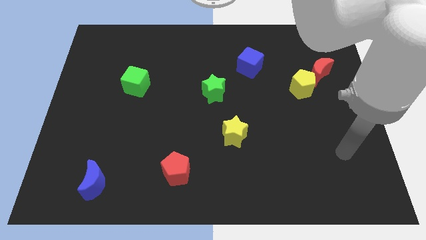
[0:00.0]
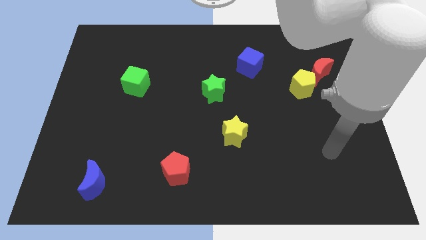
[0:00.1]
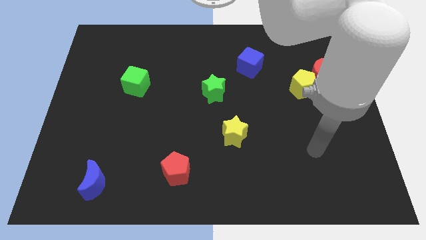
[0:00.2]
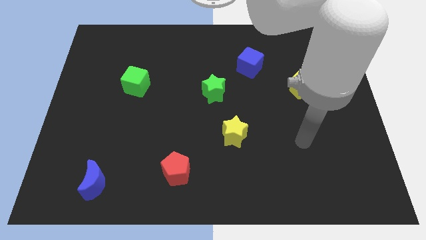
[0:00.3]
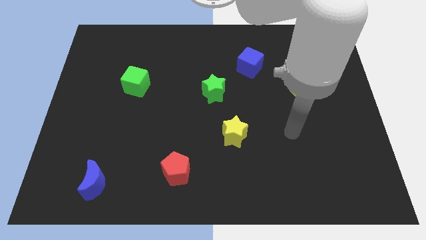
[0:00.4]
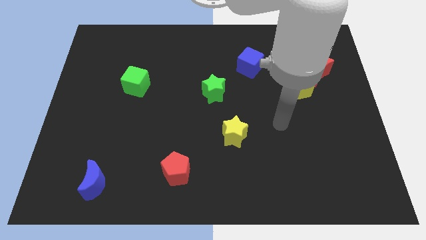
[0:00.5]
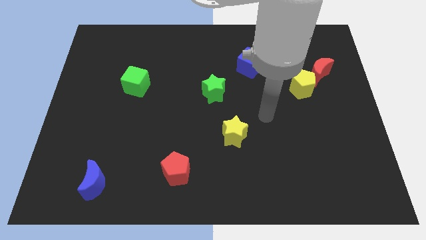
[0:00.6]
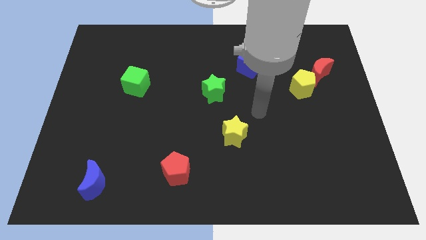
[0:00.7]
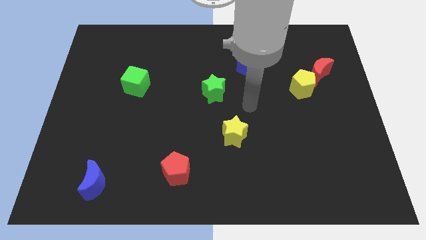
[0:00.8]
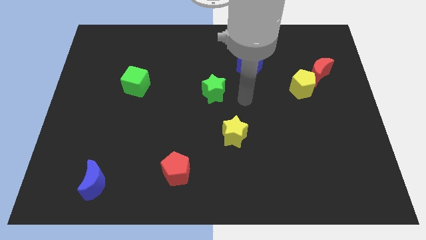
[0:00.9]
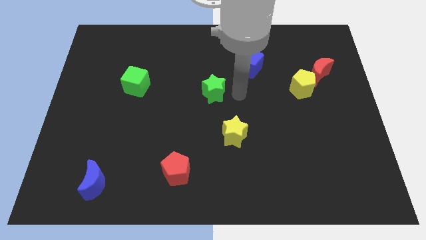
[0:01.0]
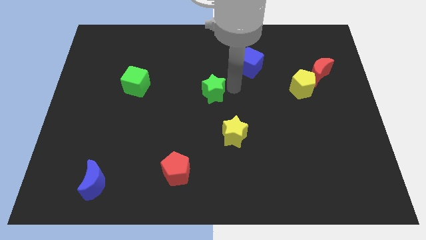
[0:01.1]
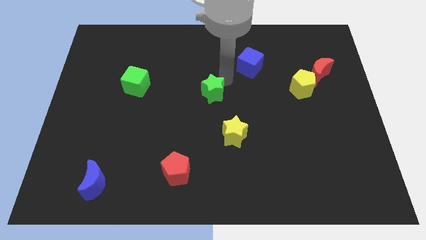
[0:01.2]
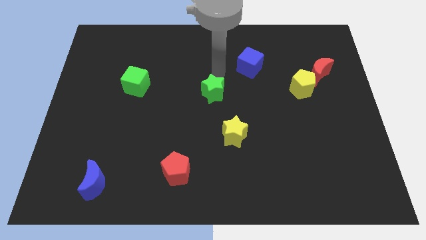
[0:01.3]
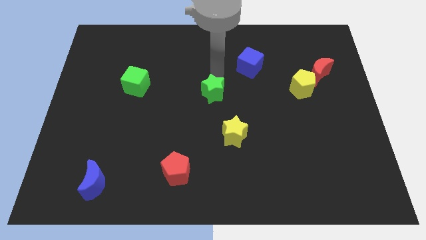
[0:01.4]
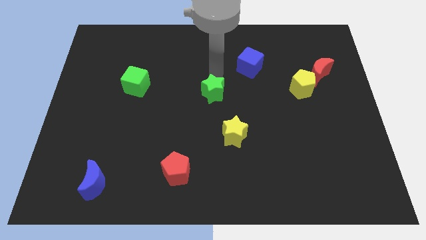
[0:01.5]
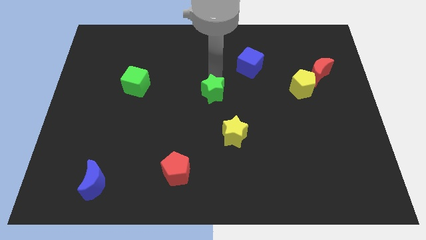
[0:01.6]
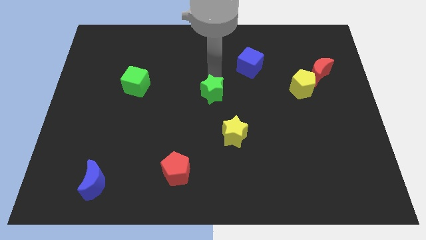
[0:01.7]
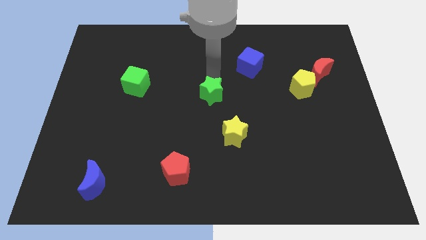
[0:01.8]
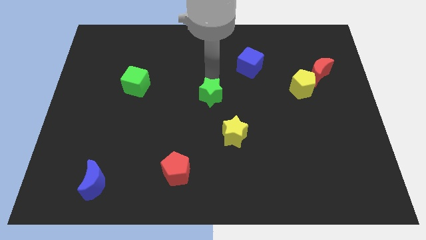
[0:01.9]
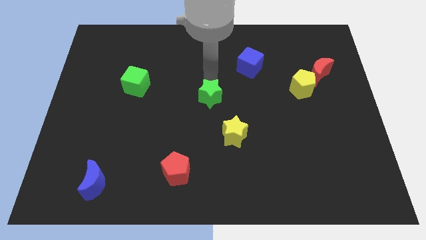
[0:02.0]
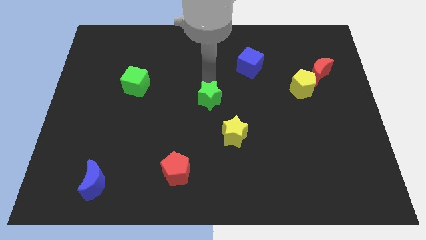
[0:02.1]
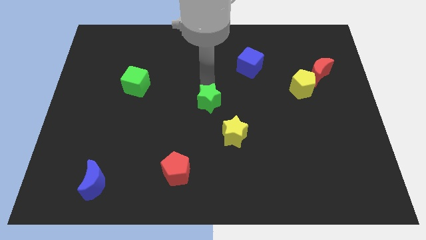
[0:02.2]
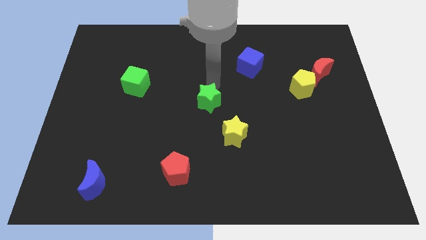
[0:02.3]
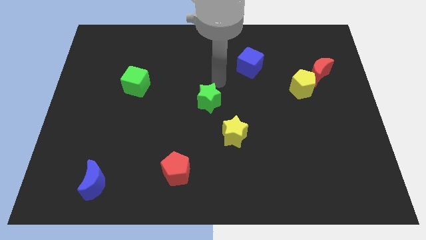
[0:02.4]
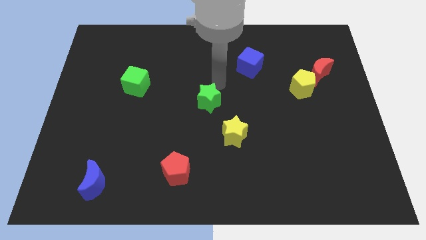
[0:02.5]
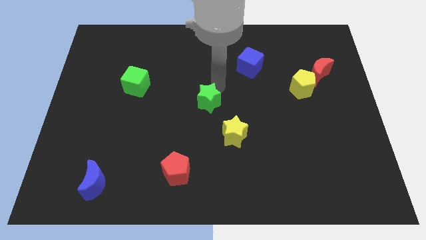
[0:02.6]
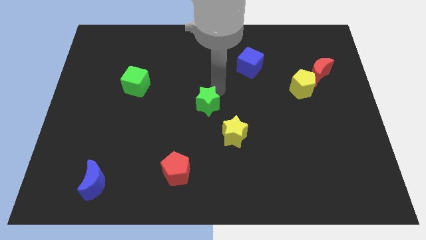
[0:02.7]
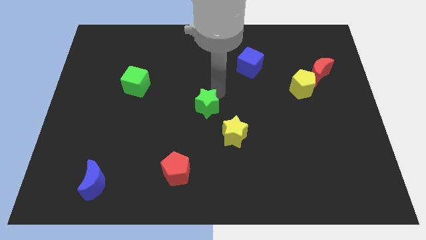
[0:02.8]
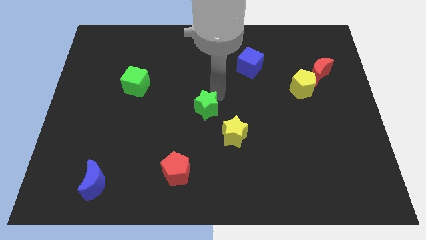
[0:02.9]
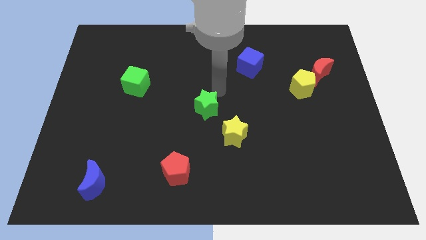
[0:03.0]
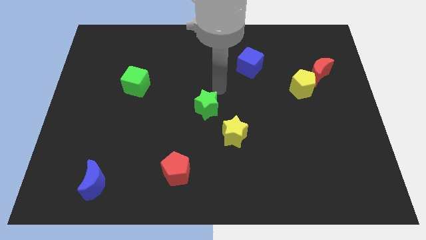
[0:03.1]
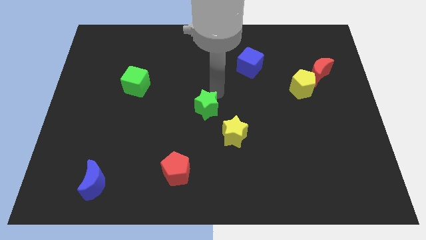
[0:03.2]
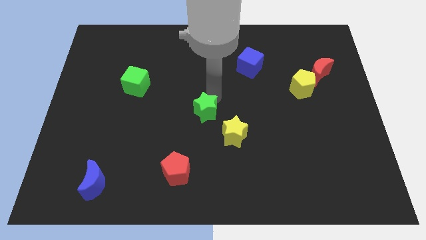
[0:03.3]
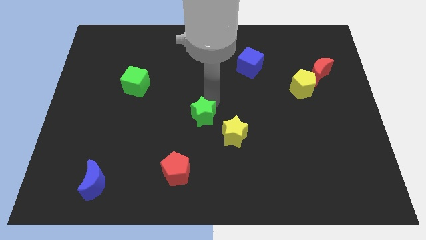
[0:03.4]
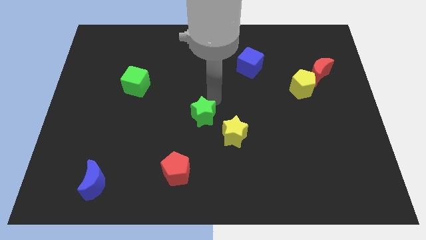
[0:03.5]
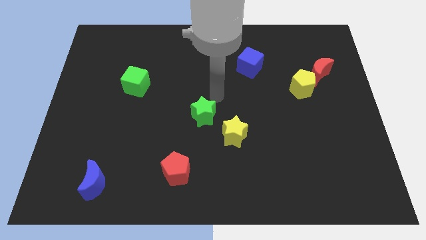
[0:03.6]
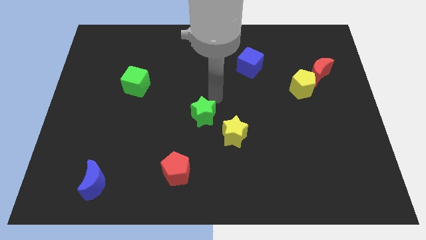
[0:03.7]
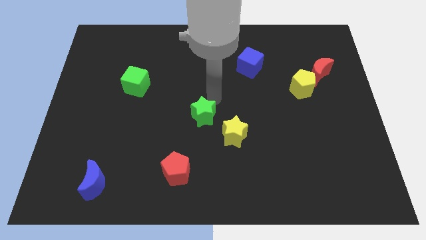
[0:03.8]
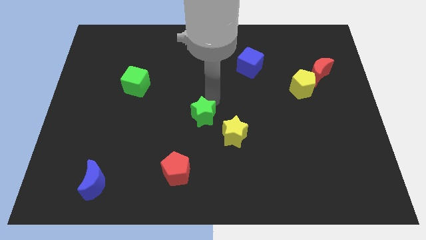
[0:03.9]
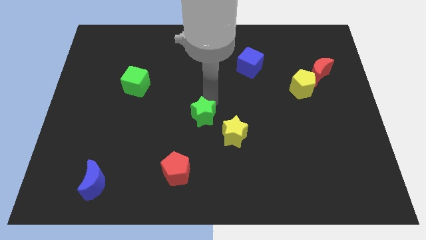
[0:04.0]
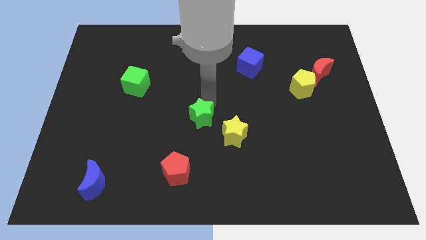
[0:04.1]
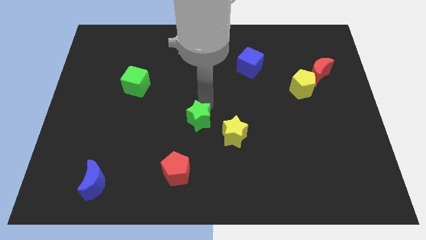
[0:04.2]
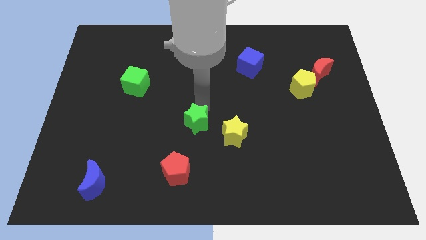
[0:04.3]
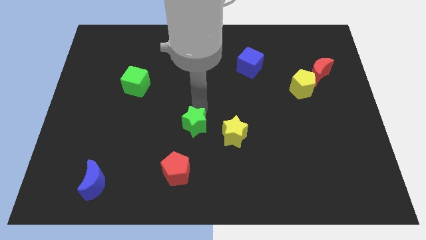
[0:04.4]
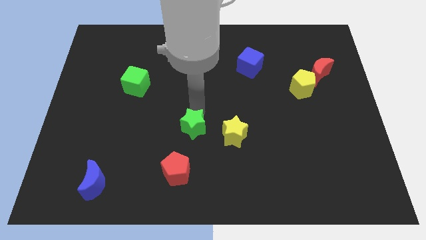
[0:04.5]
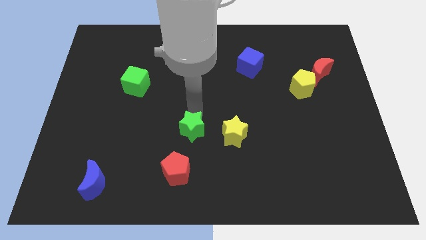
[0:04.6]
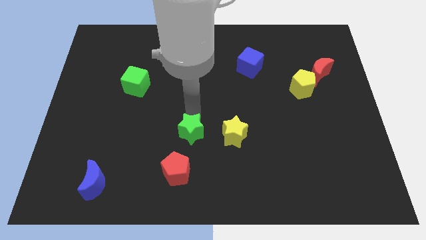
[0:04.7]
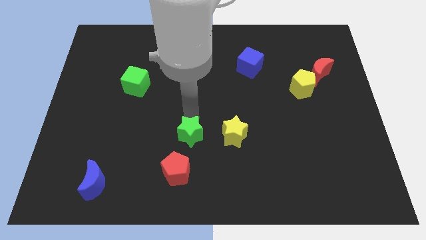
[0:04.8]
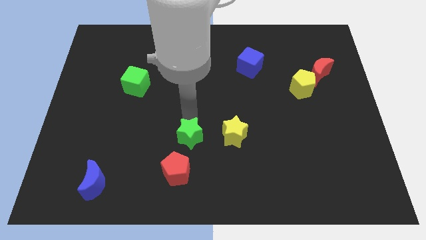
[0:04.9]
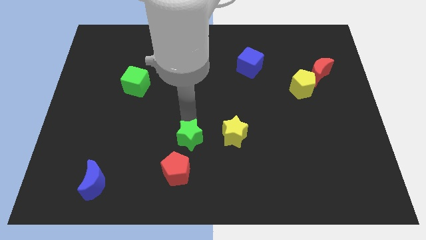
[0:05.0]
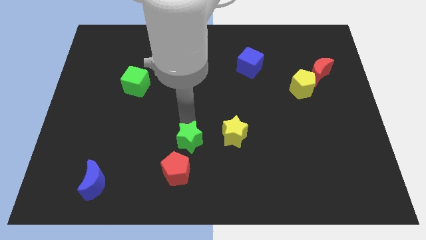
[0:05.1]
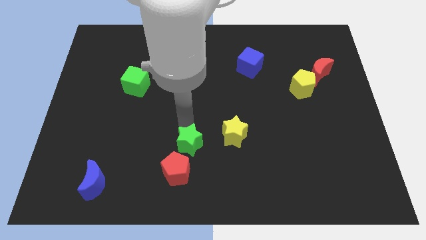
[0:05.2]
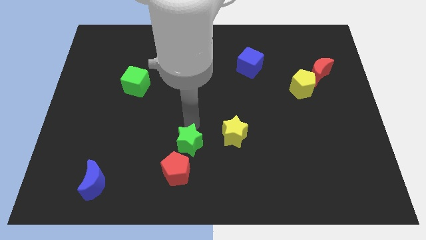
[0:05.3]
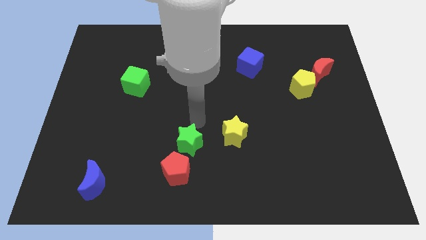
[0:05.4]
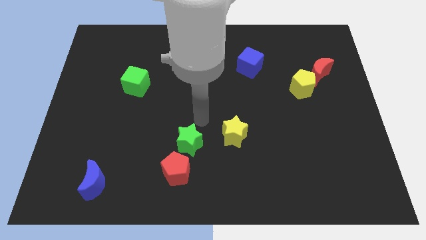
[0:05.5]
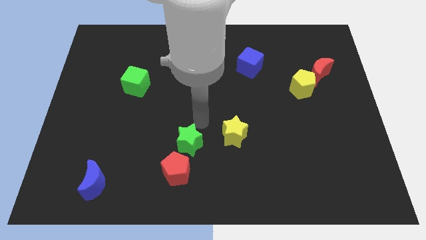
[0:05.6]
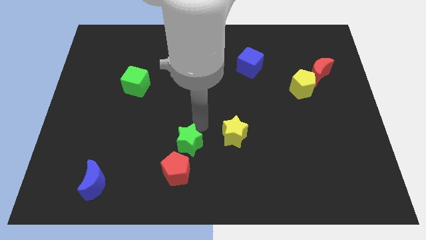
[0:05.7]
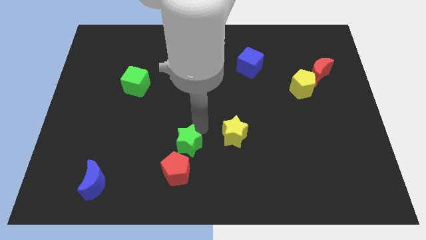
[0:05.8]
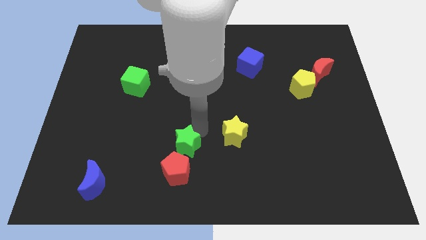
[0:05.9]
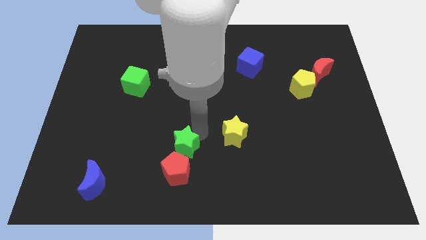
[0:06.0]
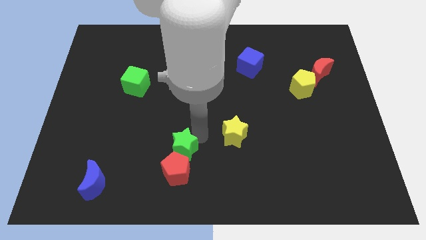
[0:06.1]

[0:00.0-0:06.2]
move the green star towards the red pentagon

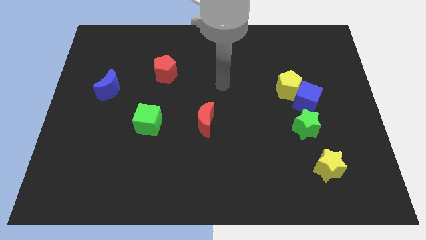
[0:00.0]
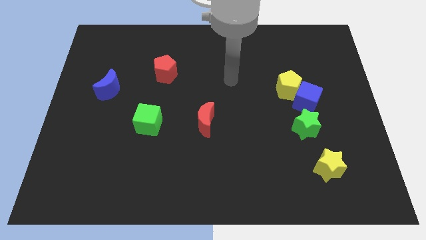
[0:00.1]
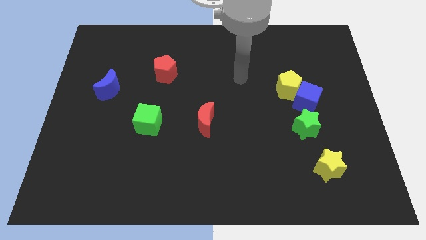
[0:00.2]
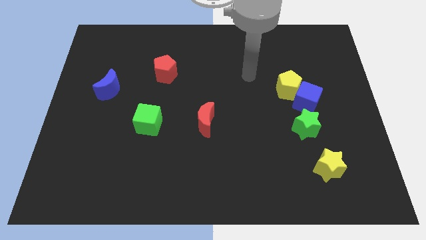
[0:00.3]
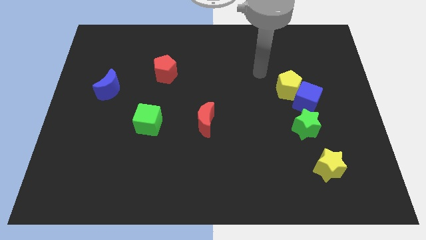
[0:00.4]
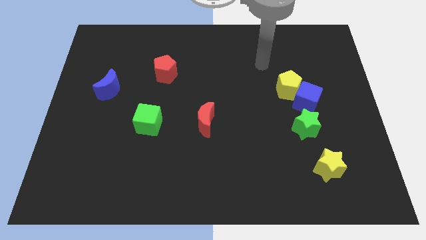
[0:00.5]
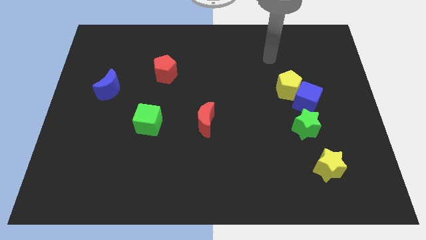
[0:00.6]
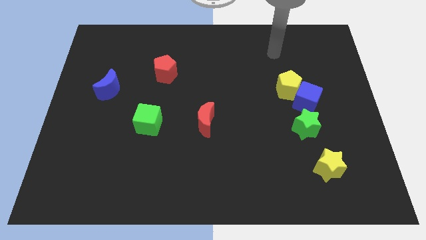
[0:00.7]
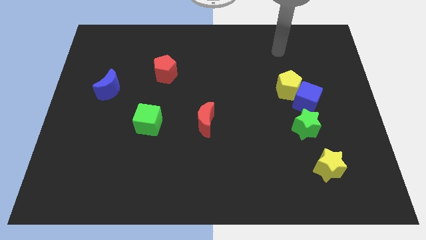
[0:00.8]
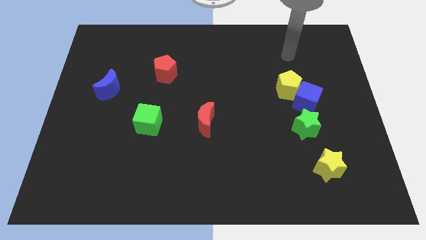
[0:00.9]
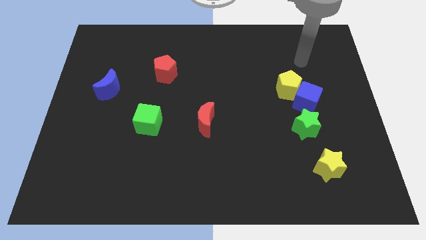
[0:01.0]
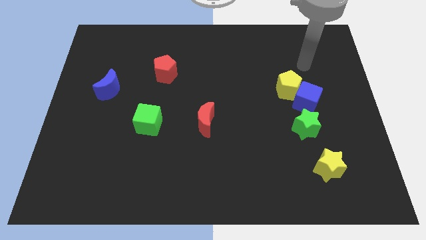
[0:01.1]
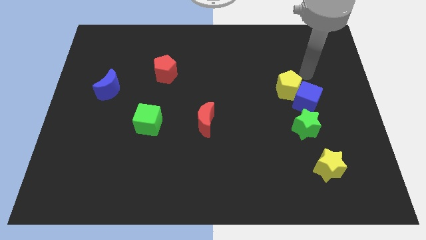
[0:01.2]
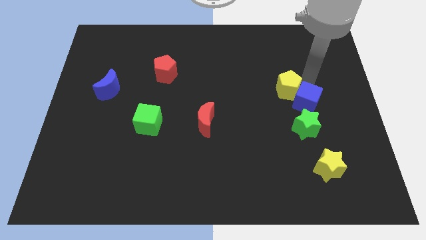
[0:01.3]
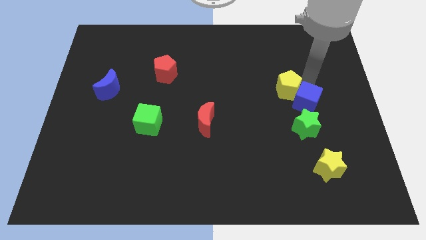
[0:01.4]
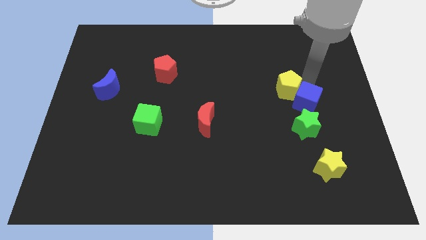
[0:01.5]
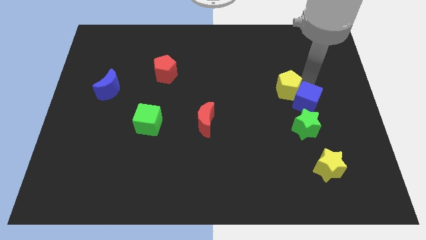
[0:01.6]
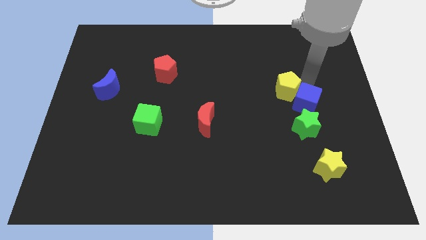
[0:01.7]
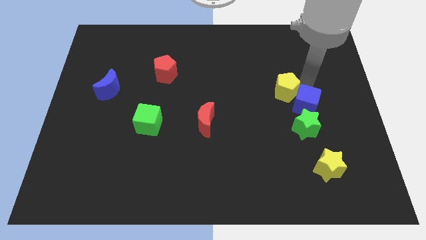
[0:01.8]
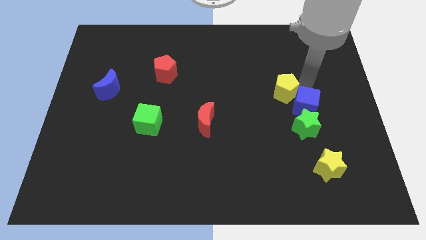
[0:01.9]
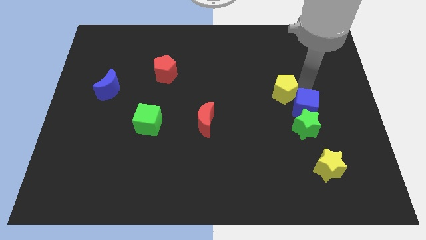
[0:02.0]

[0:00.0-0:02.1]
push the blue cube towards the green star

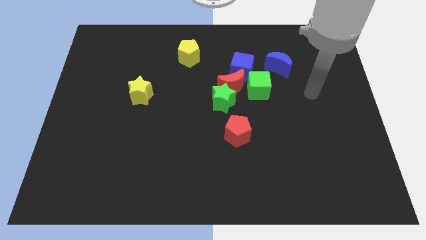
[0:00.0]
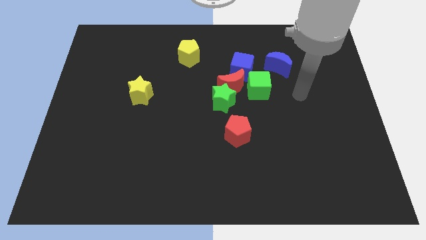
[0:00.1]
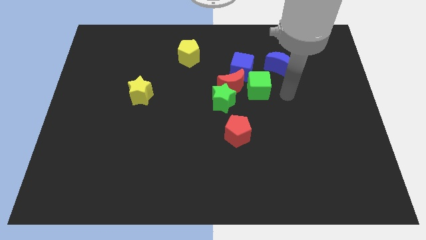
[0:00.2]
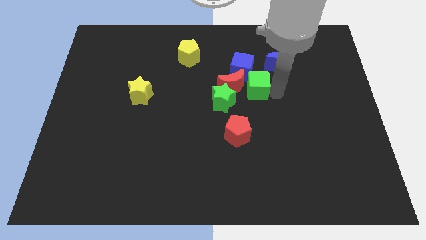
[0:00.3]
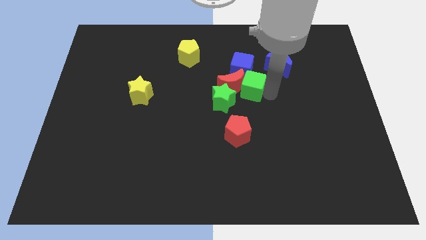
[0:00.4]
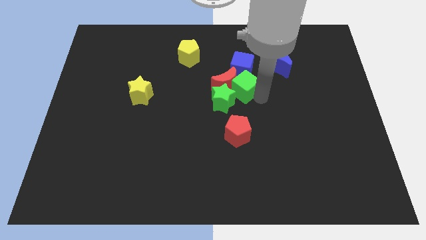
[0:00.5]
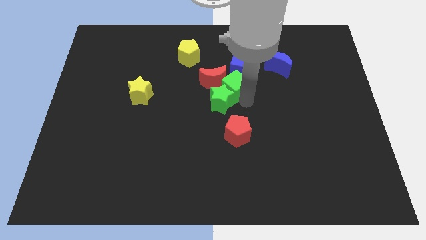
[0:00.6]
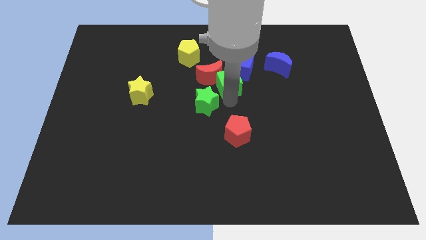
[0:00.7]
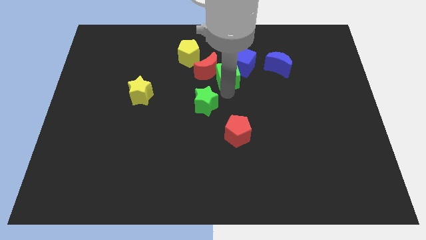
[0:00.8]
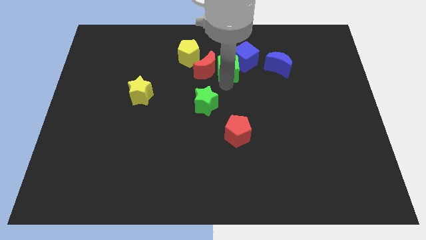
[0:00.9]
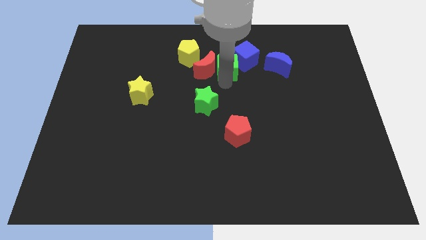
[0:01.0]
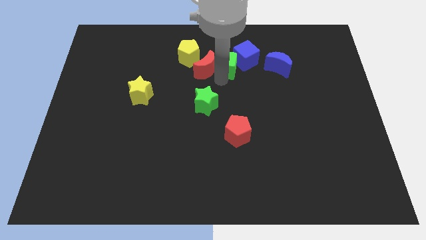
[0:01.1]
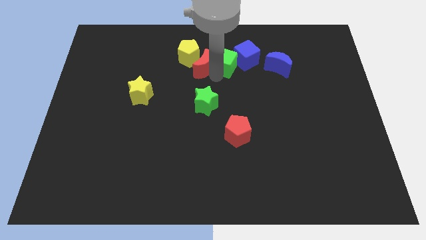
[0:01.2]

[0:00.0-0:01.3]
put the red moon towards the yellow pentagon
